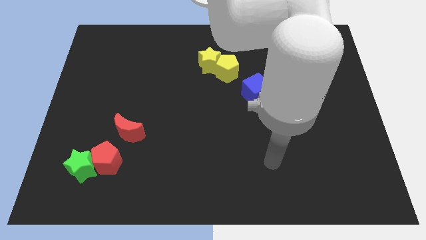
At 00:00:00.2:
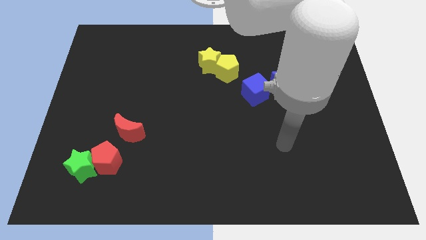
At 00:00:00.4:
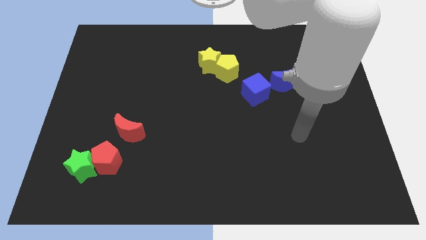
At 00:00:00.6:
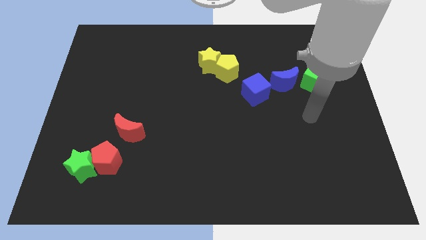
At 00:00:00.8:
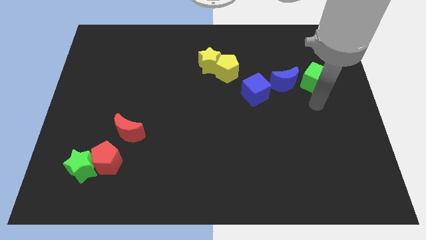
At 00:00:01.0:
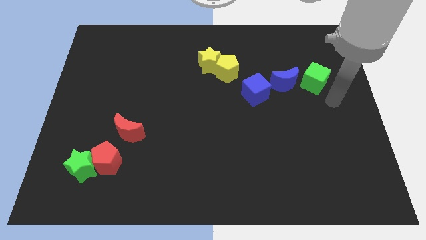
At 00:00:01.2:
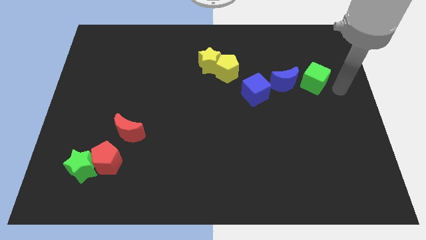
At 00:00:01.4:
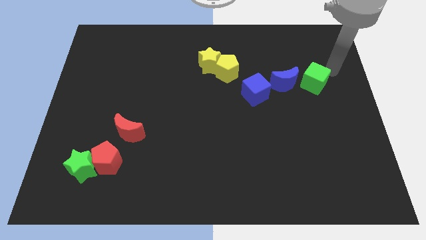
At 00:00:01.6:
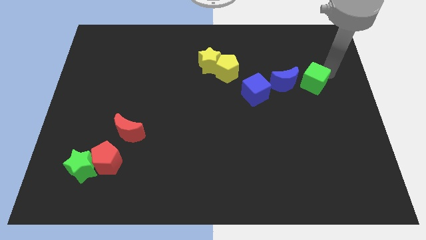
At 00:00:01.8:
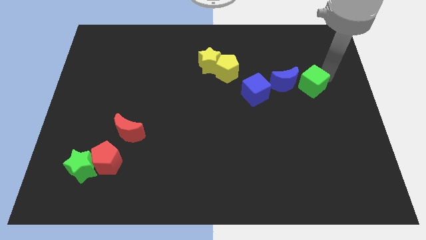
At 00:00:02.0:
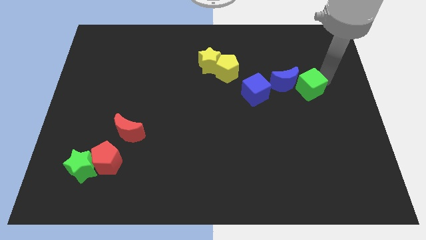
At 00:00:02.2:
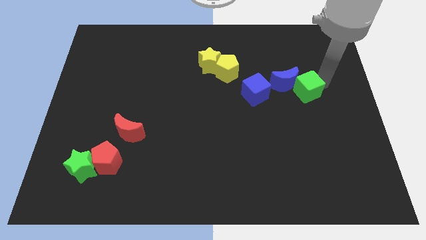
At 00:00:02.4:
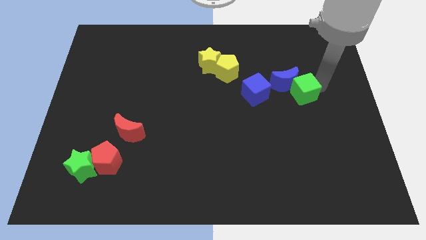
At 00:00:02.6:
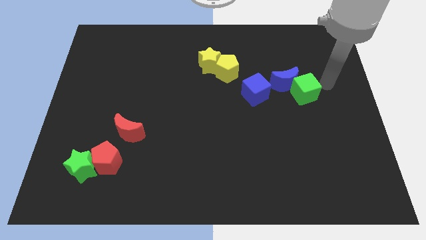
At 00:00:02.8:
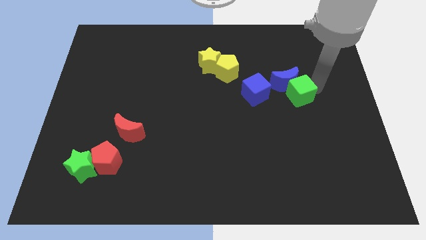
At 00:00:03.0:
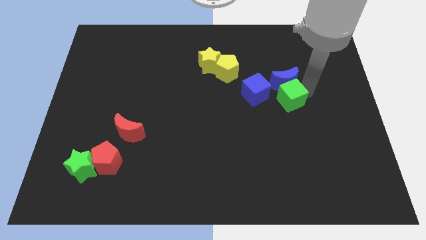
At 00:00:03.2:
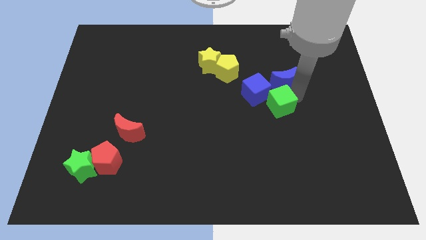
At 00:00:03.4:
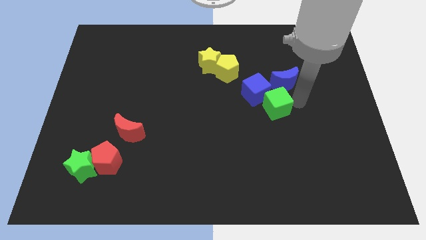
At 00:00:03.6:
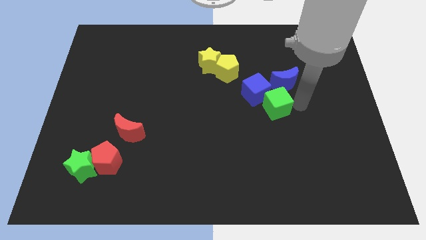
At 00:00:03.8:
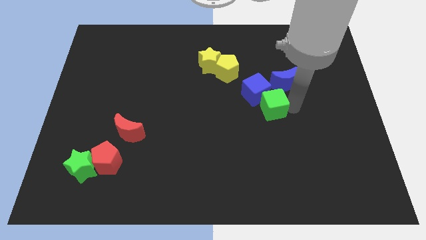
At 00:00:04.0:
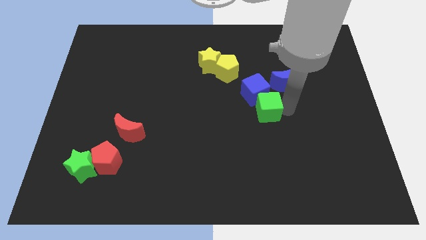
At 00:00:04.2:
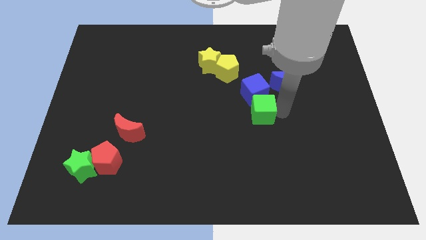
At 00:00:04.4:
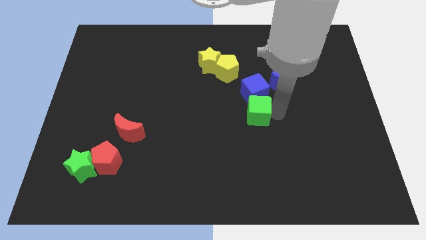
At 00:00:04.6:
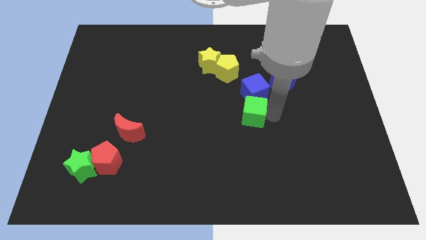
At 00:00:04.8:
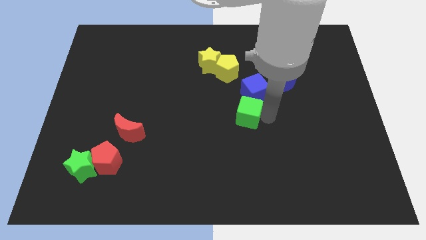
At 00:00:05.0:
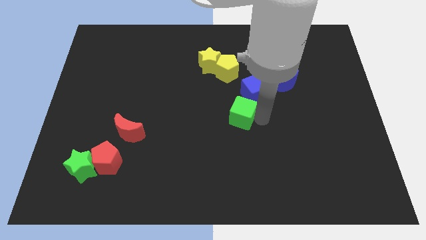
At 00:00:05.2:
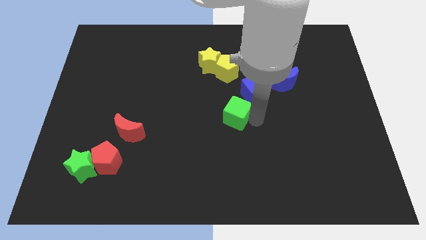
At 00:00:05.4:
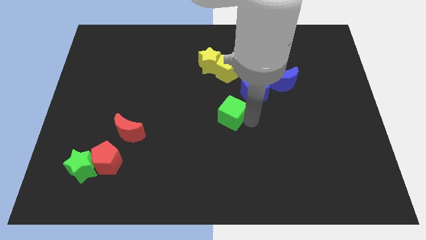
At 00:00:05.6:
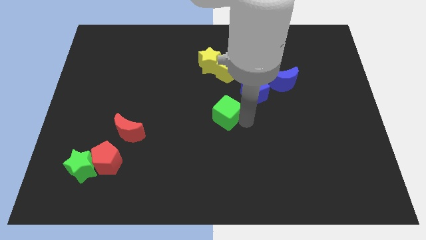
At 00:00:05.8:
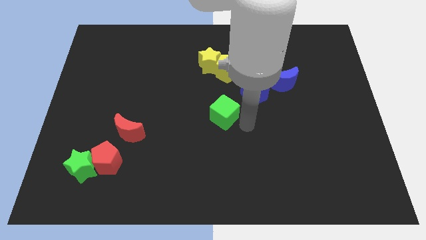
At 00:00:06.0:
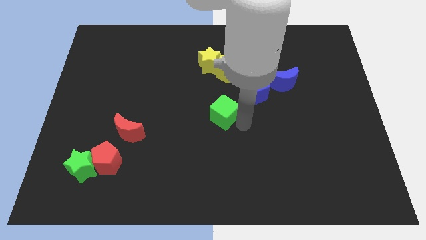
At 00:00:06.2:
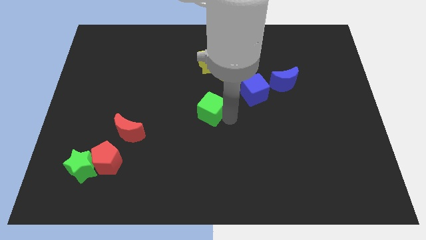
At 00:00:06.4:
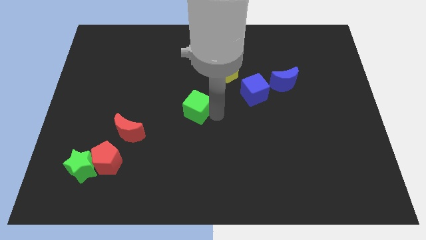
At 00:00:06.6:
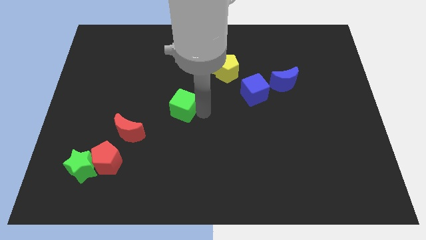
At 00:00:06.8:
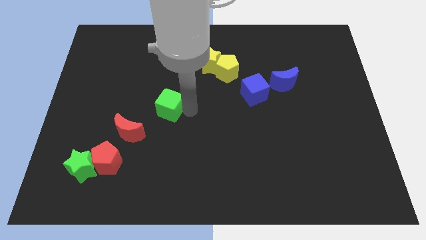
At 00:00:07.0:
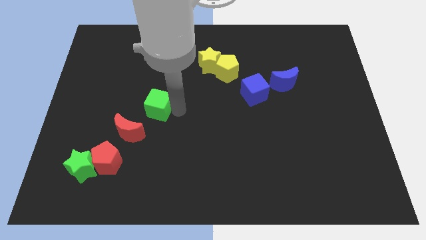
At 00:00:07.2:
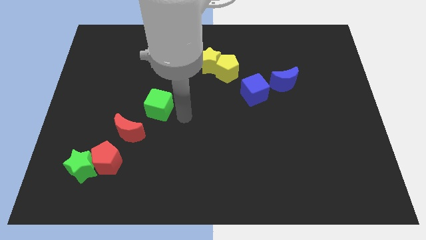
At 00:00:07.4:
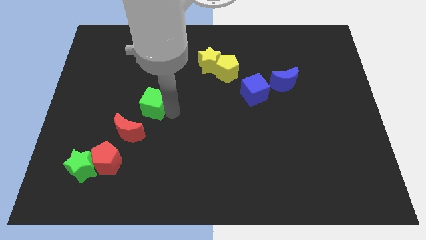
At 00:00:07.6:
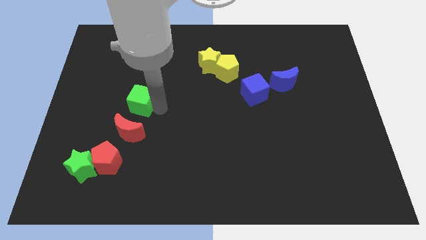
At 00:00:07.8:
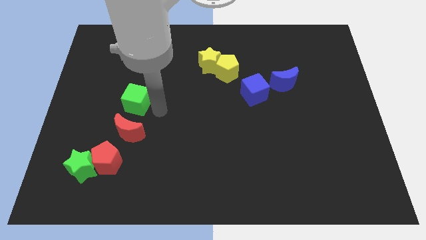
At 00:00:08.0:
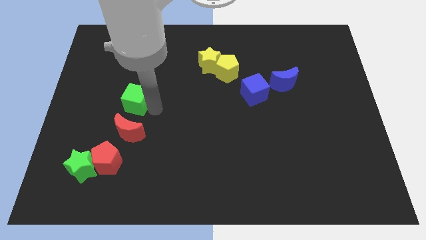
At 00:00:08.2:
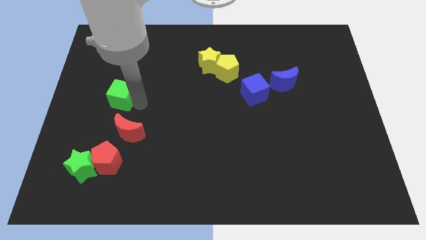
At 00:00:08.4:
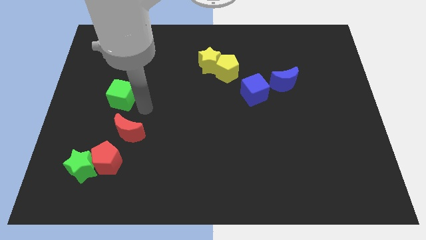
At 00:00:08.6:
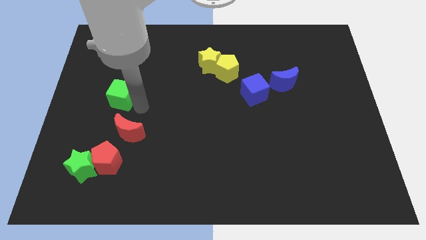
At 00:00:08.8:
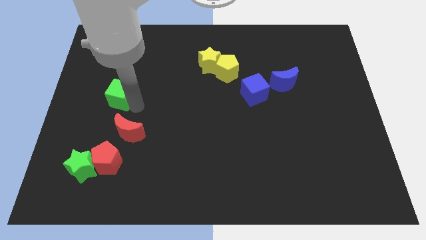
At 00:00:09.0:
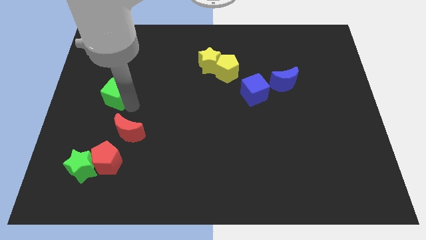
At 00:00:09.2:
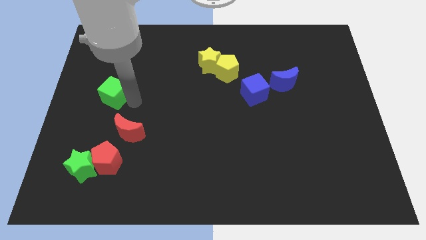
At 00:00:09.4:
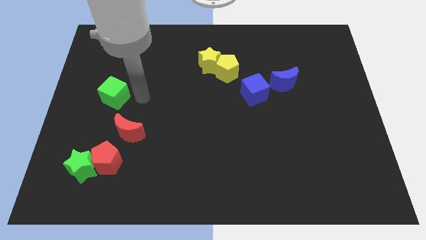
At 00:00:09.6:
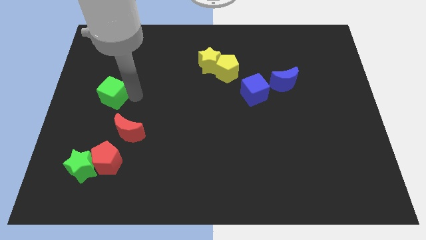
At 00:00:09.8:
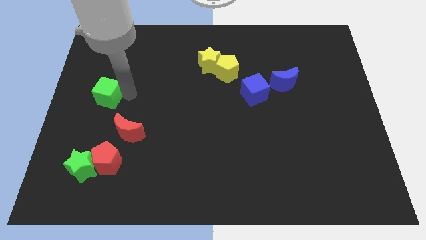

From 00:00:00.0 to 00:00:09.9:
slide the green cube to the left side

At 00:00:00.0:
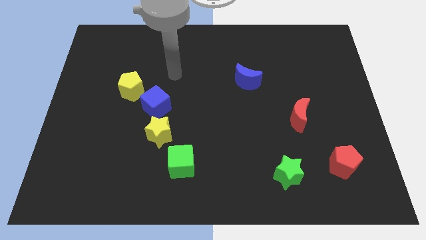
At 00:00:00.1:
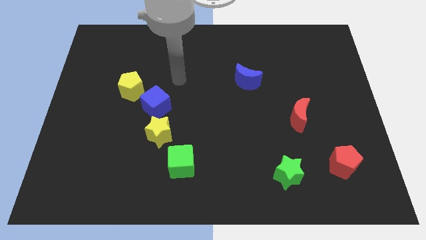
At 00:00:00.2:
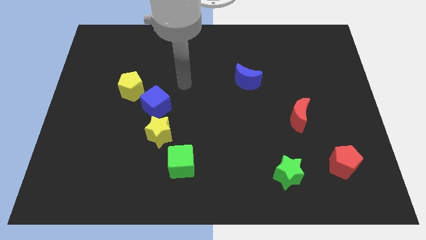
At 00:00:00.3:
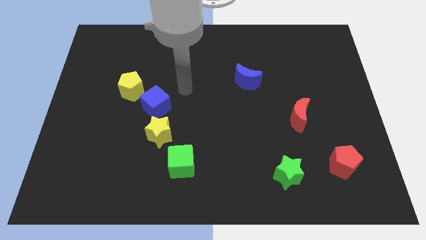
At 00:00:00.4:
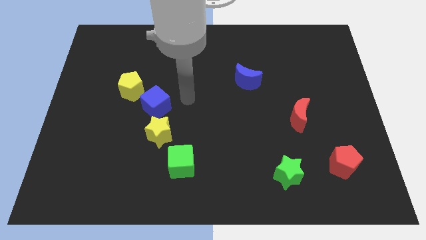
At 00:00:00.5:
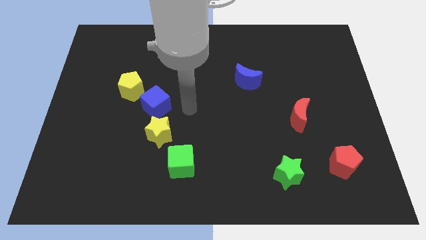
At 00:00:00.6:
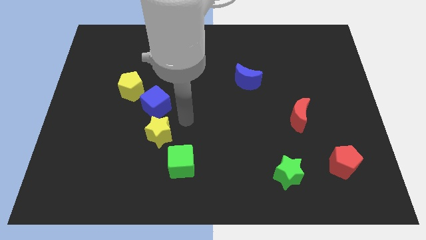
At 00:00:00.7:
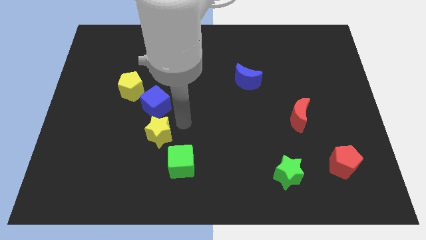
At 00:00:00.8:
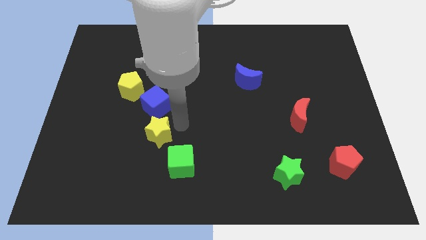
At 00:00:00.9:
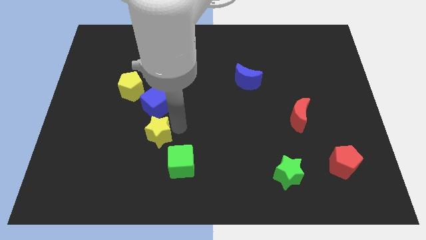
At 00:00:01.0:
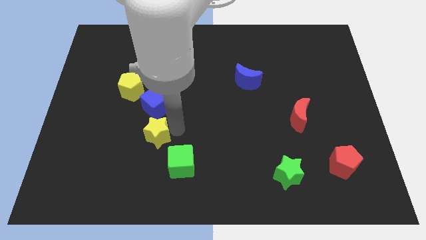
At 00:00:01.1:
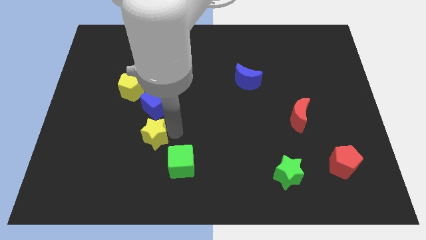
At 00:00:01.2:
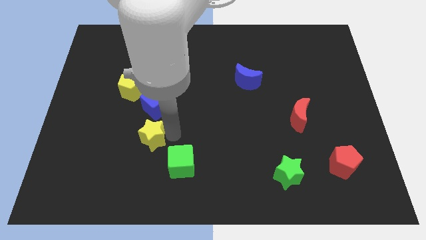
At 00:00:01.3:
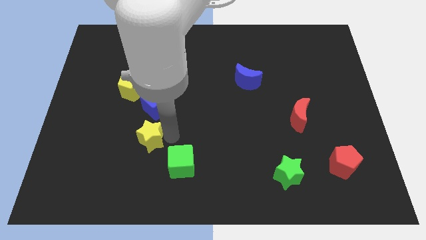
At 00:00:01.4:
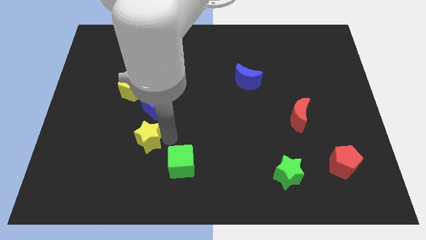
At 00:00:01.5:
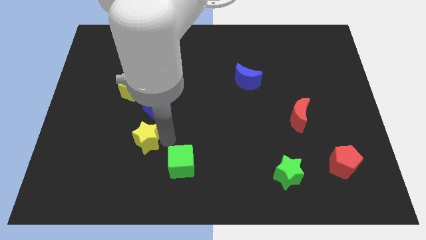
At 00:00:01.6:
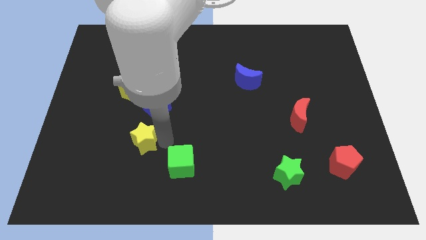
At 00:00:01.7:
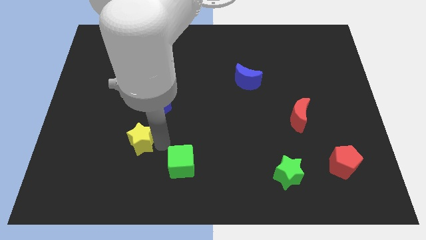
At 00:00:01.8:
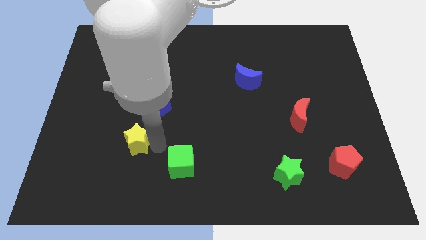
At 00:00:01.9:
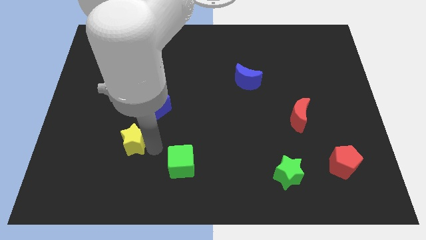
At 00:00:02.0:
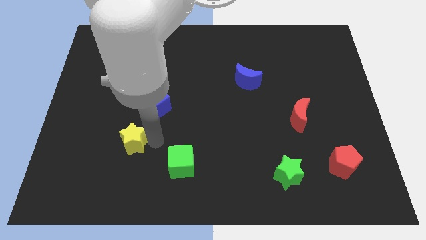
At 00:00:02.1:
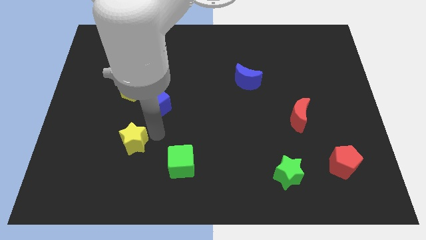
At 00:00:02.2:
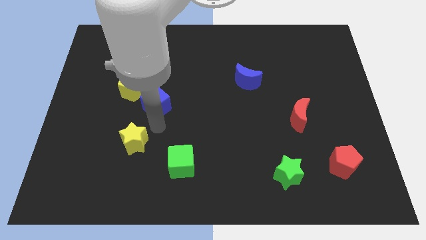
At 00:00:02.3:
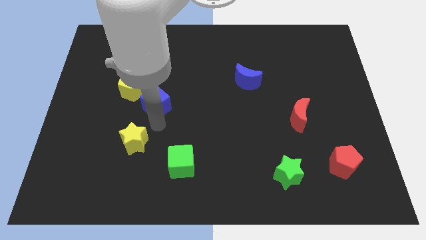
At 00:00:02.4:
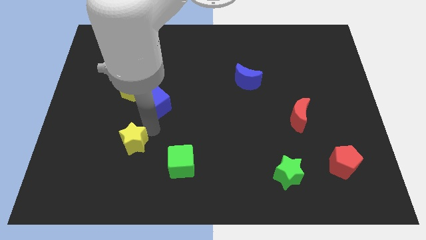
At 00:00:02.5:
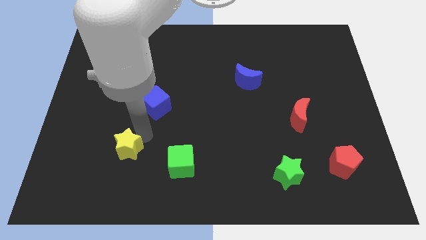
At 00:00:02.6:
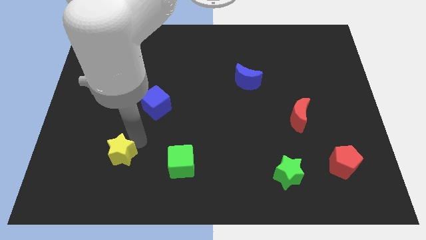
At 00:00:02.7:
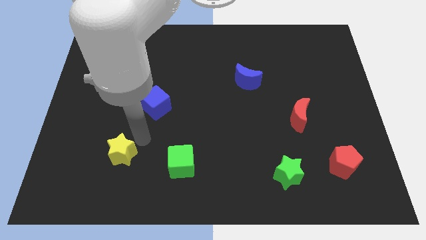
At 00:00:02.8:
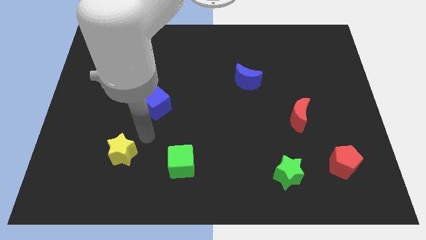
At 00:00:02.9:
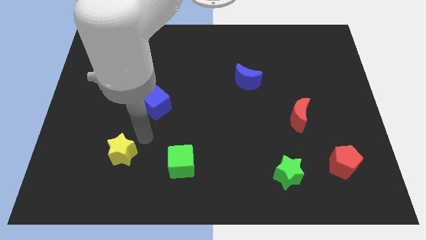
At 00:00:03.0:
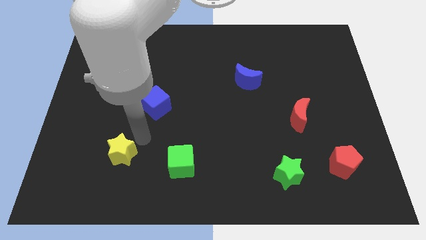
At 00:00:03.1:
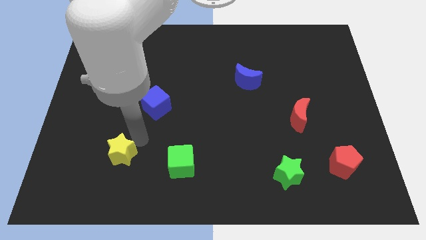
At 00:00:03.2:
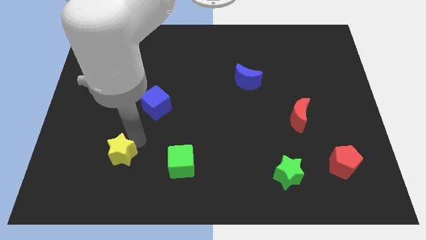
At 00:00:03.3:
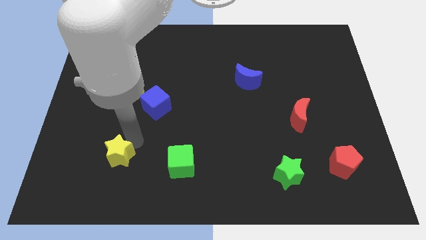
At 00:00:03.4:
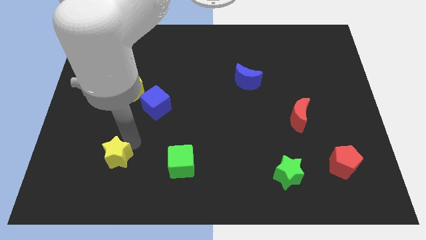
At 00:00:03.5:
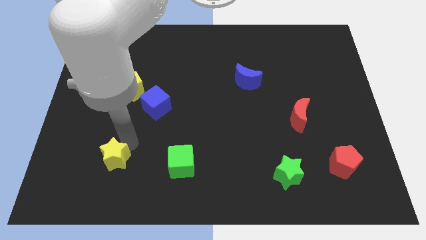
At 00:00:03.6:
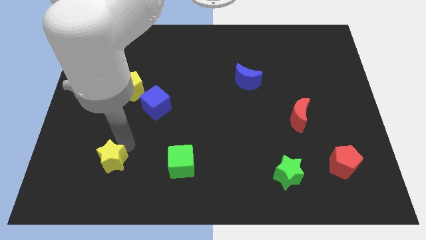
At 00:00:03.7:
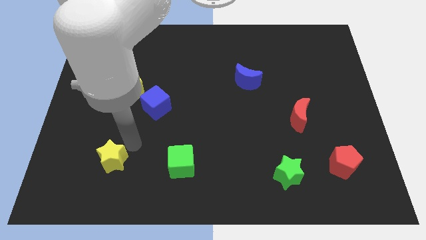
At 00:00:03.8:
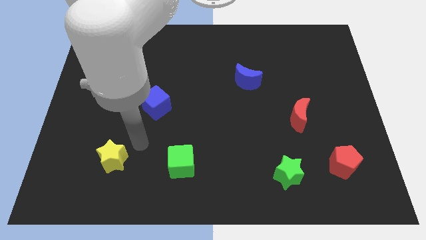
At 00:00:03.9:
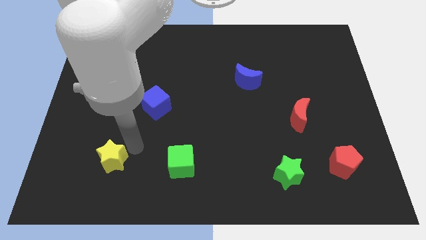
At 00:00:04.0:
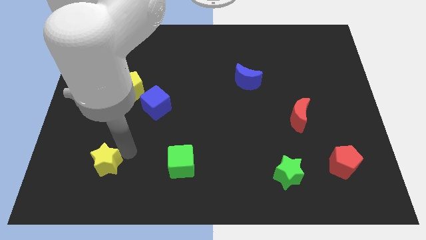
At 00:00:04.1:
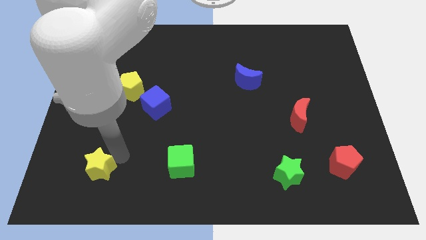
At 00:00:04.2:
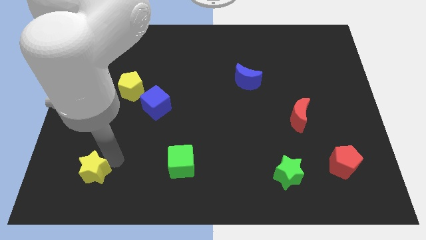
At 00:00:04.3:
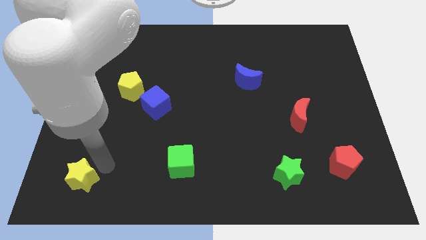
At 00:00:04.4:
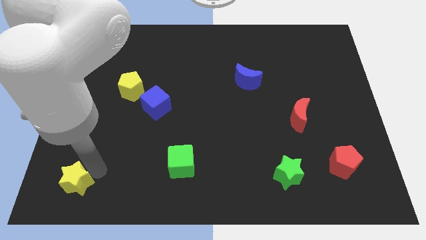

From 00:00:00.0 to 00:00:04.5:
put the yellow star to the bottom left of the board
